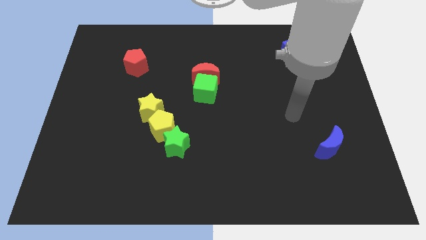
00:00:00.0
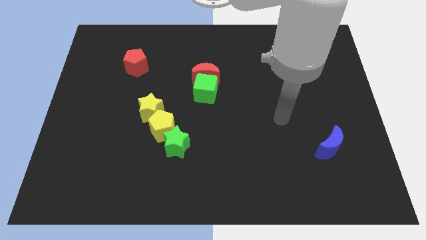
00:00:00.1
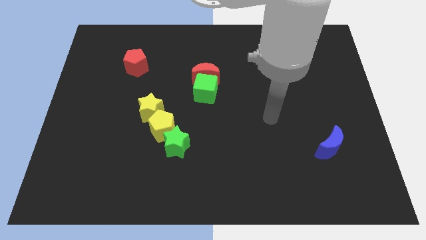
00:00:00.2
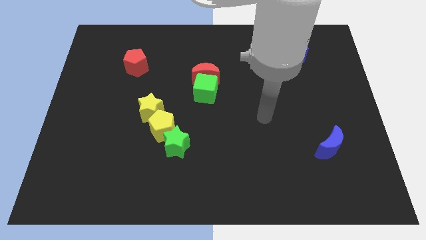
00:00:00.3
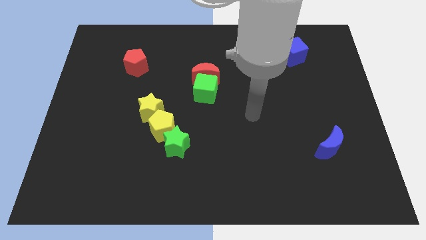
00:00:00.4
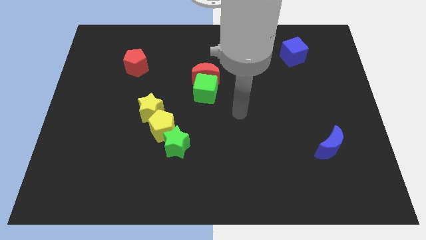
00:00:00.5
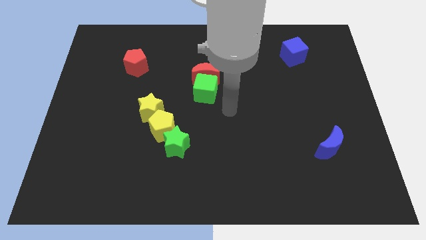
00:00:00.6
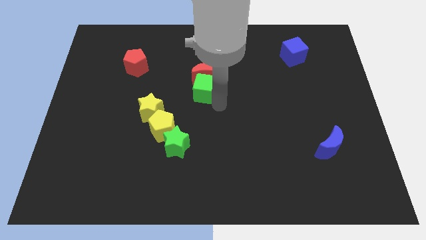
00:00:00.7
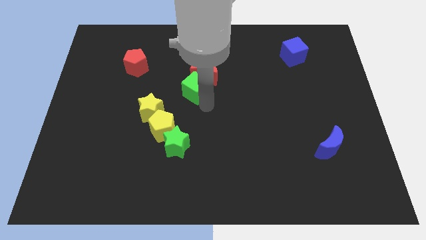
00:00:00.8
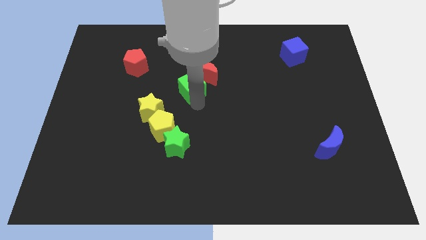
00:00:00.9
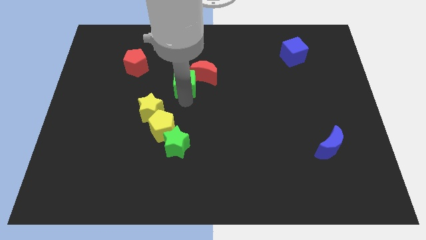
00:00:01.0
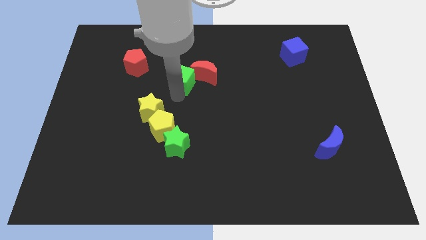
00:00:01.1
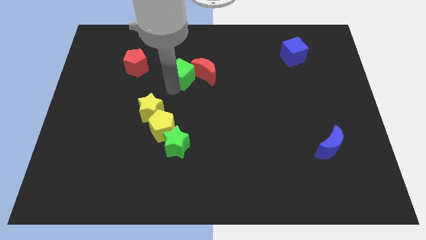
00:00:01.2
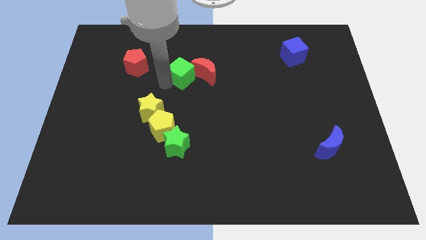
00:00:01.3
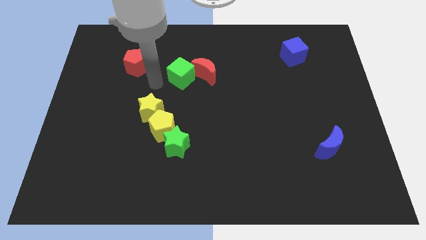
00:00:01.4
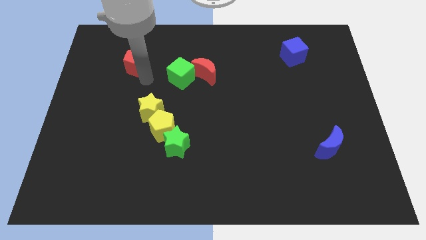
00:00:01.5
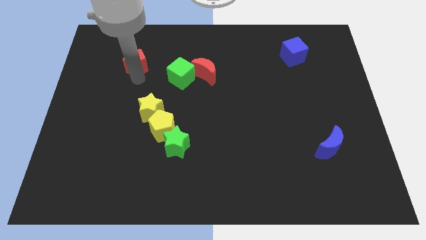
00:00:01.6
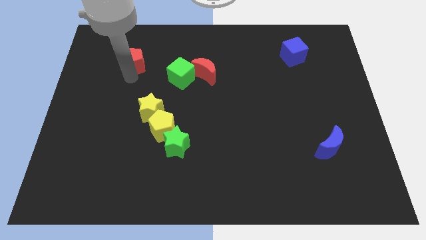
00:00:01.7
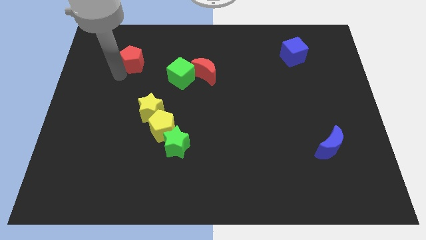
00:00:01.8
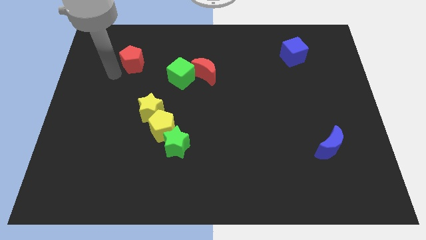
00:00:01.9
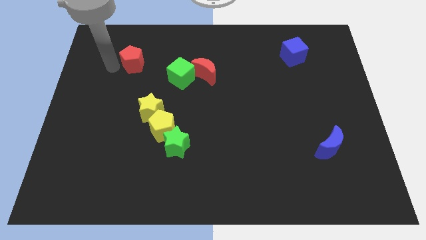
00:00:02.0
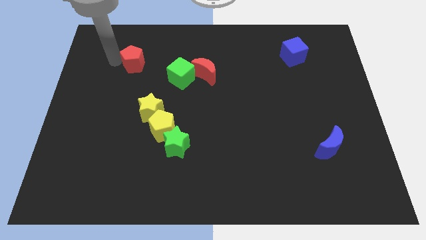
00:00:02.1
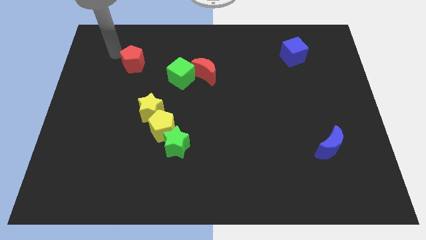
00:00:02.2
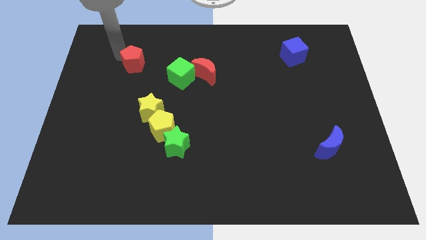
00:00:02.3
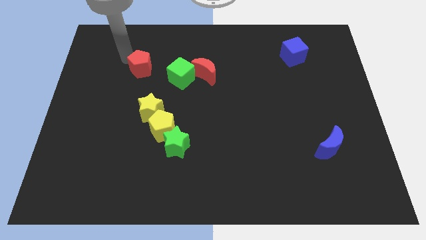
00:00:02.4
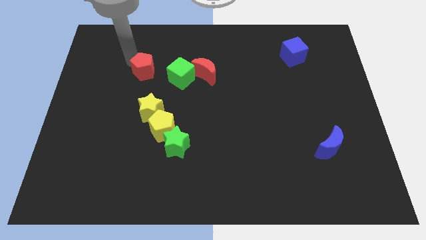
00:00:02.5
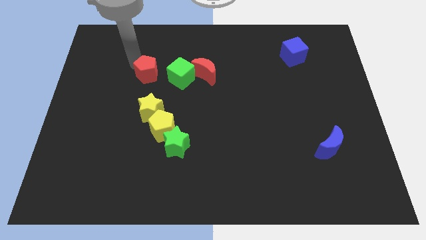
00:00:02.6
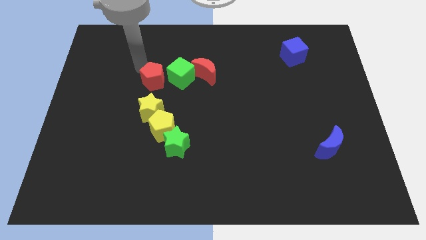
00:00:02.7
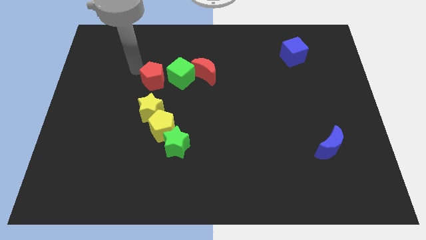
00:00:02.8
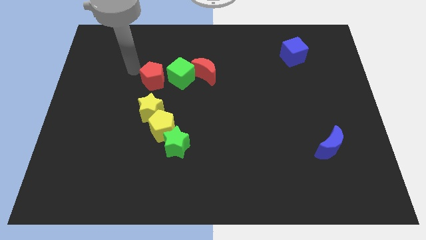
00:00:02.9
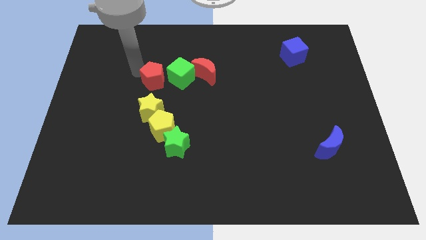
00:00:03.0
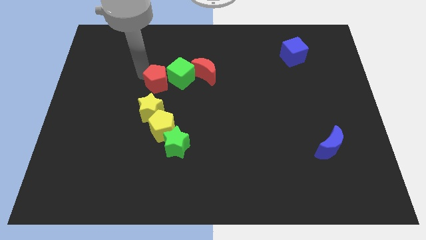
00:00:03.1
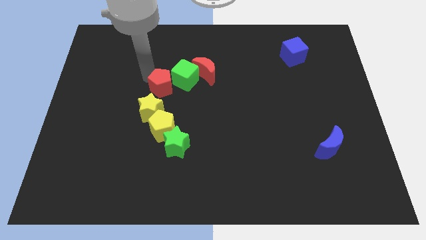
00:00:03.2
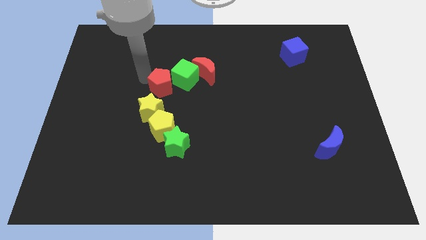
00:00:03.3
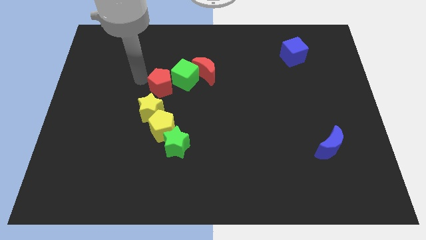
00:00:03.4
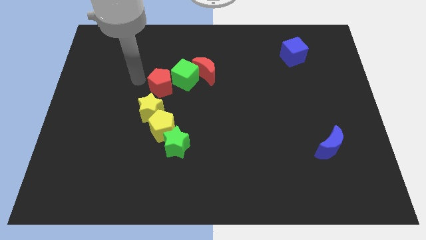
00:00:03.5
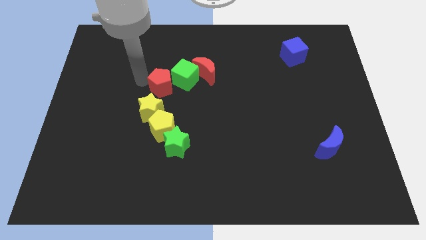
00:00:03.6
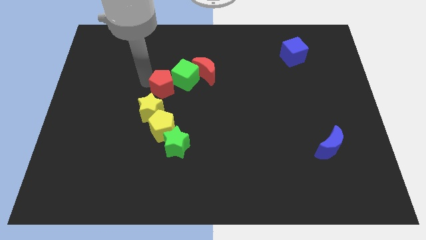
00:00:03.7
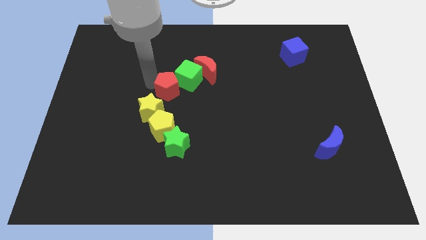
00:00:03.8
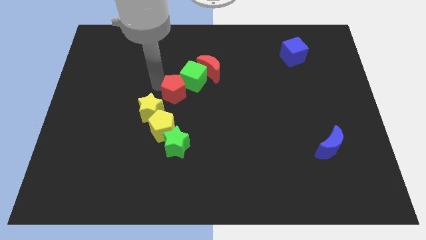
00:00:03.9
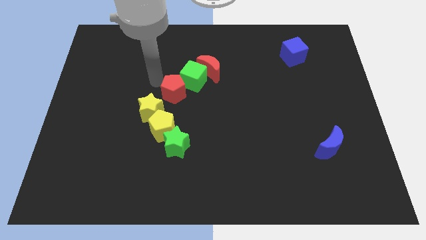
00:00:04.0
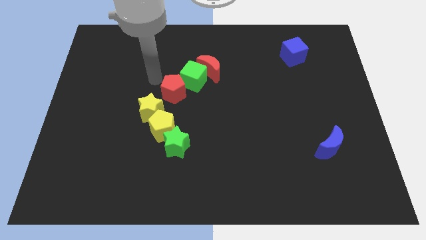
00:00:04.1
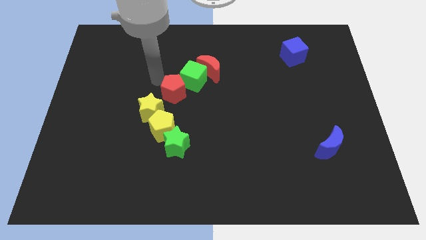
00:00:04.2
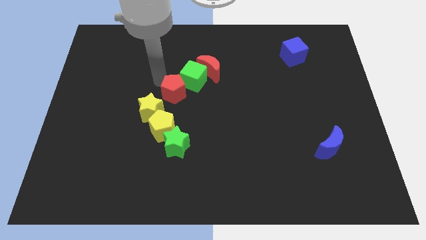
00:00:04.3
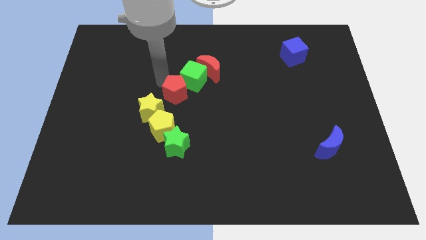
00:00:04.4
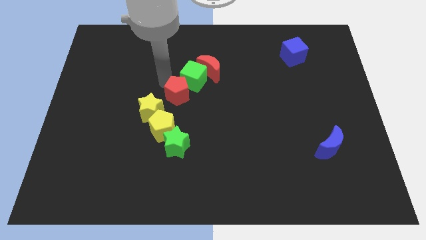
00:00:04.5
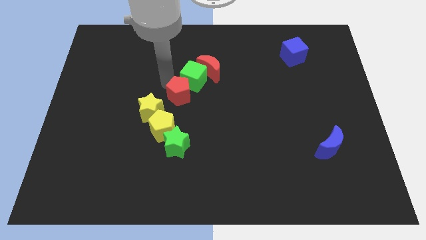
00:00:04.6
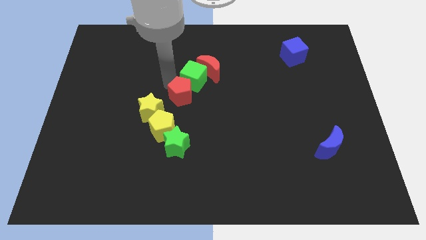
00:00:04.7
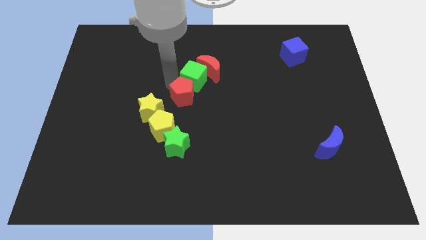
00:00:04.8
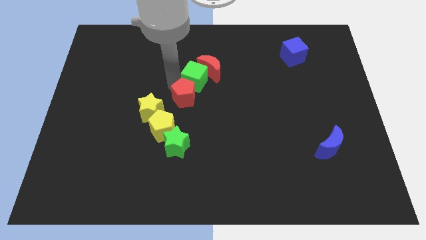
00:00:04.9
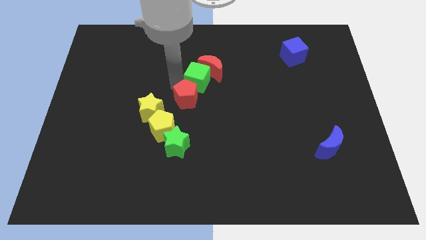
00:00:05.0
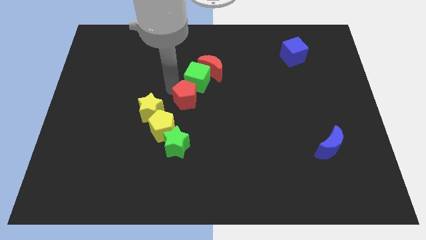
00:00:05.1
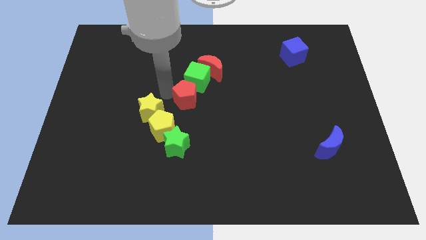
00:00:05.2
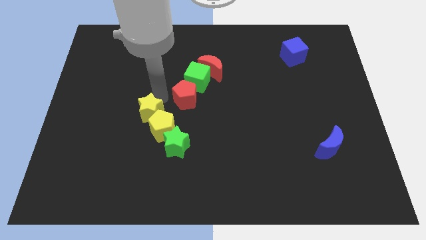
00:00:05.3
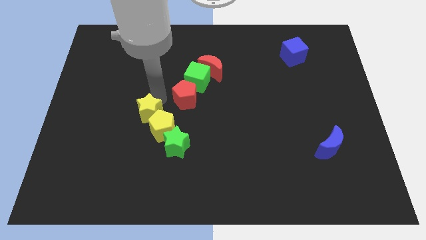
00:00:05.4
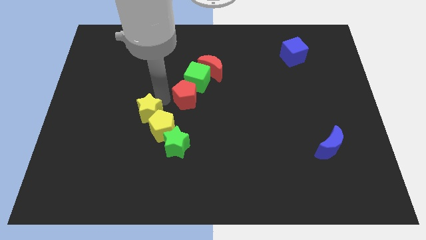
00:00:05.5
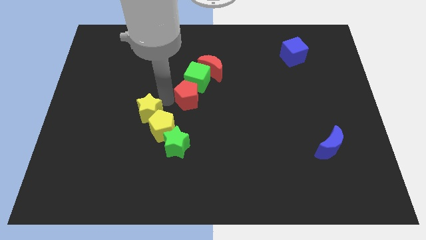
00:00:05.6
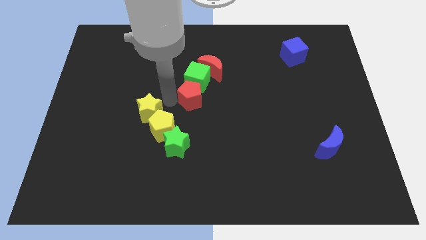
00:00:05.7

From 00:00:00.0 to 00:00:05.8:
slide the red pentagon to the bottom right of the green cube

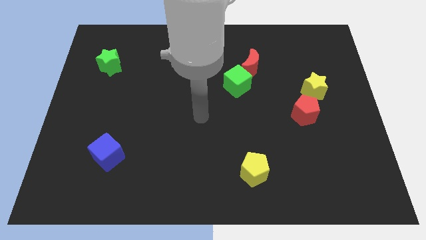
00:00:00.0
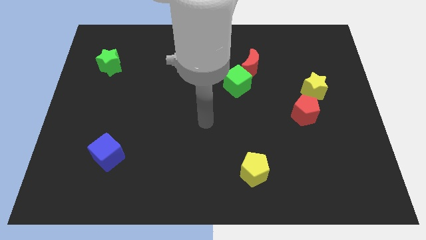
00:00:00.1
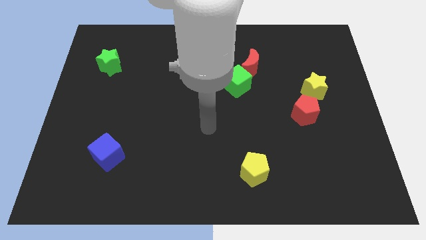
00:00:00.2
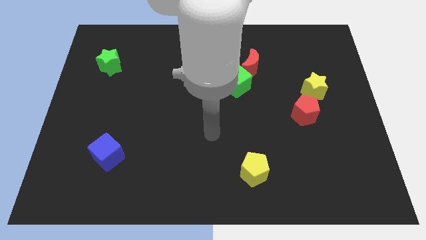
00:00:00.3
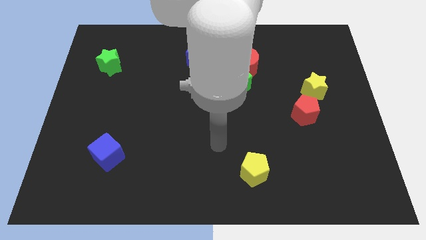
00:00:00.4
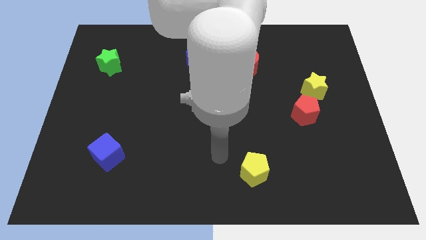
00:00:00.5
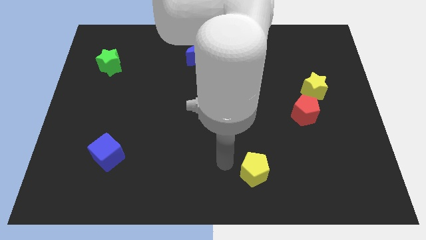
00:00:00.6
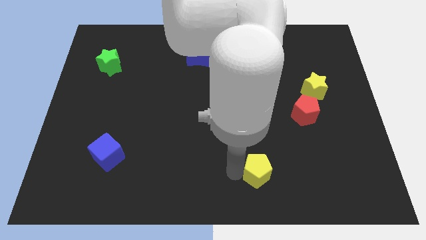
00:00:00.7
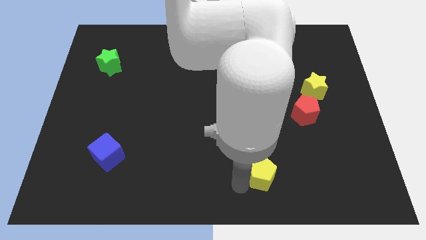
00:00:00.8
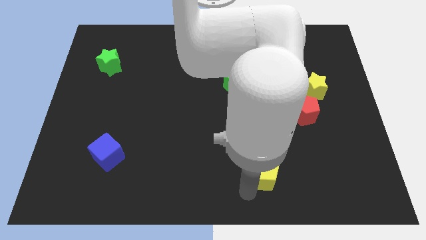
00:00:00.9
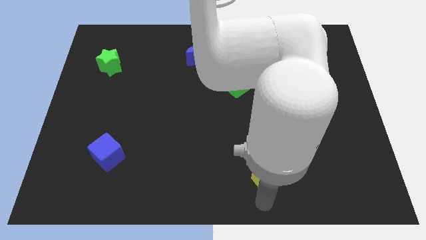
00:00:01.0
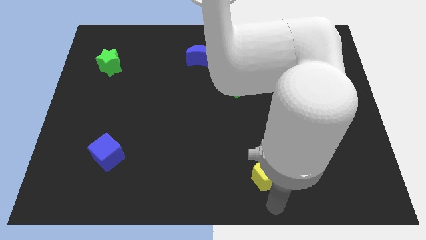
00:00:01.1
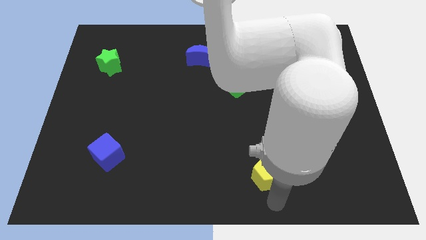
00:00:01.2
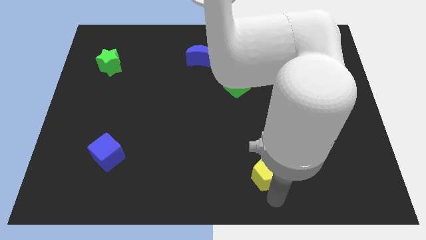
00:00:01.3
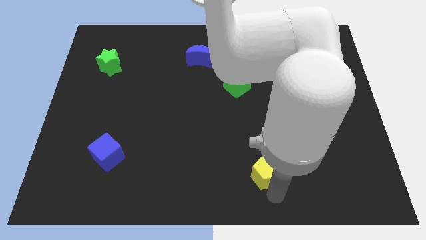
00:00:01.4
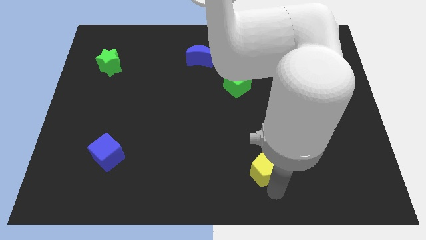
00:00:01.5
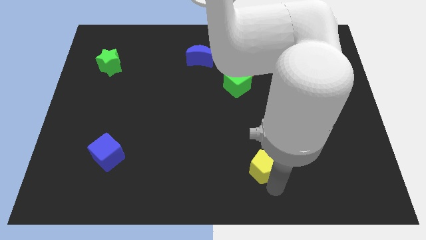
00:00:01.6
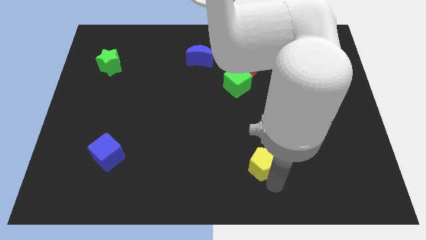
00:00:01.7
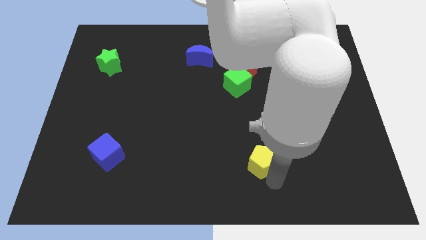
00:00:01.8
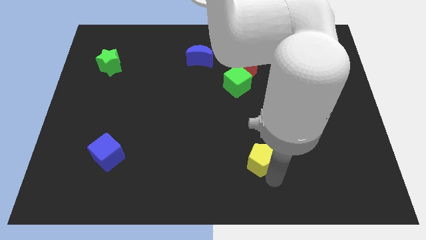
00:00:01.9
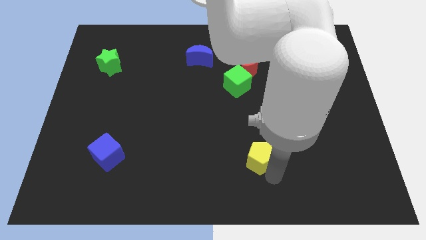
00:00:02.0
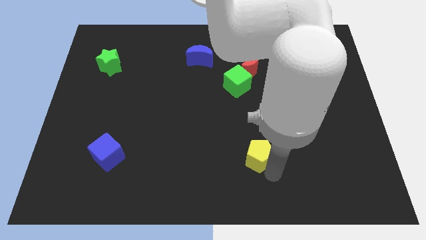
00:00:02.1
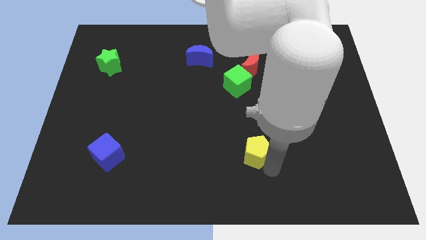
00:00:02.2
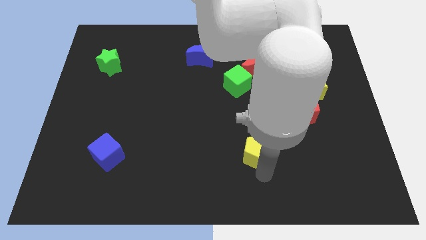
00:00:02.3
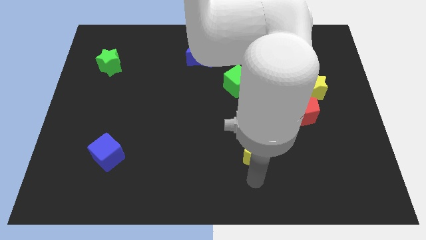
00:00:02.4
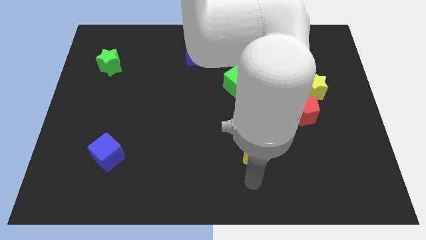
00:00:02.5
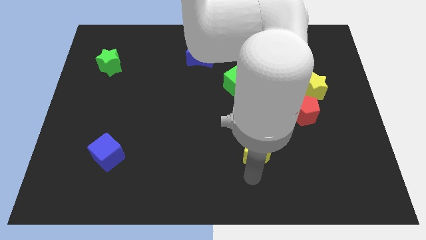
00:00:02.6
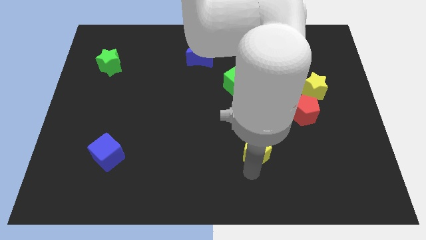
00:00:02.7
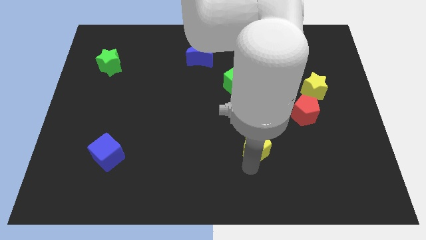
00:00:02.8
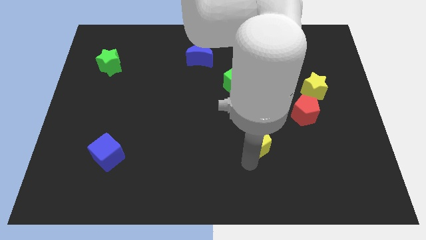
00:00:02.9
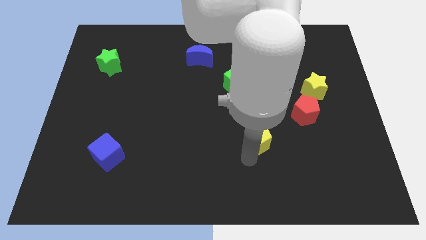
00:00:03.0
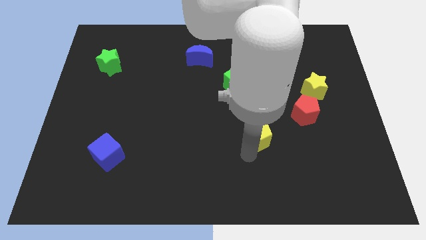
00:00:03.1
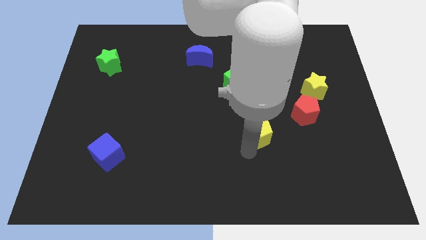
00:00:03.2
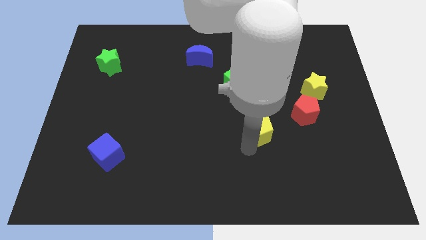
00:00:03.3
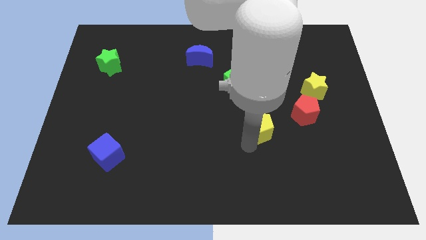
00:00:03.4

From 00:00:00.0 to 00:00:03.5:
slide the yellow pentagon left of the red pentagon
